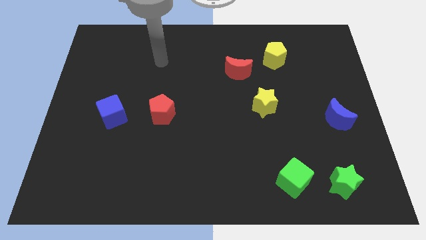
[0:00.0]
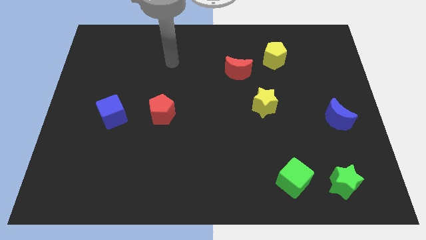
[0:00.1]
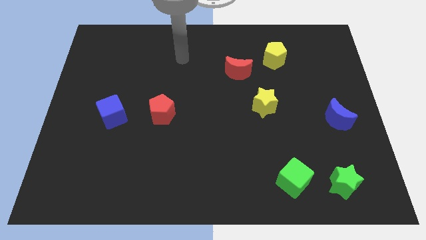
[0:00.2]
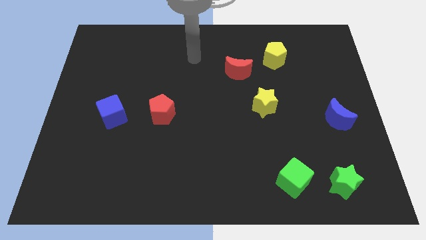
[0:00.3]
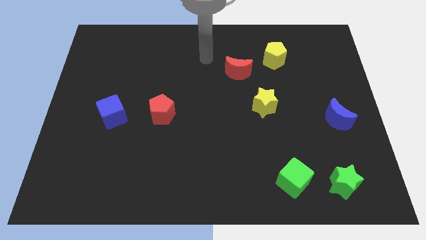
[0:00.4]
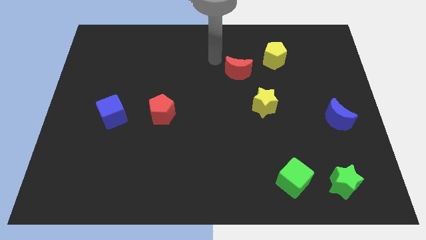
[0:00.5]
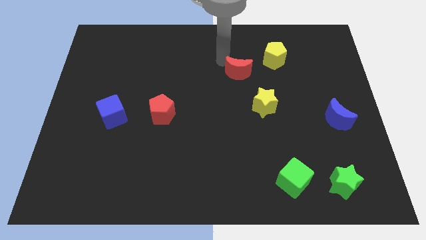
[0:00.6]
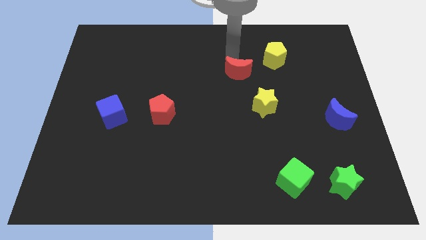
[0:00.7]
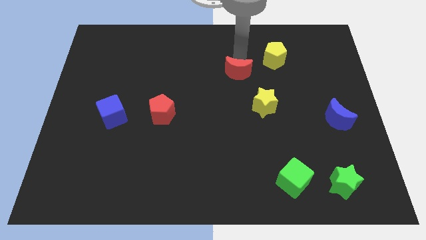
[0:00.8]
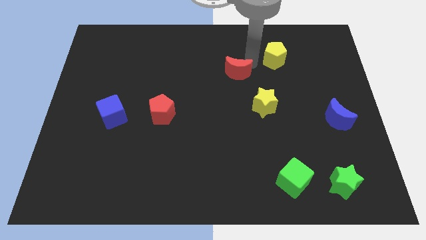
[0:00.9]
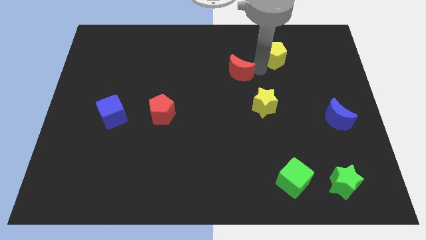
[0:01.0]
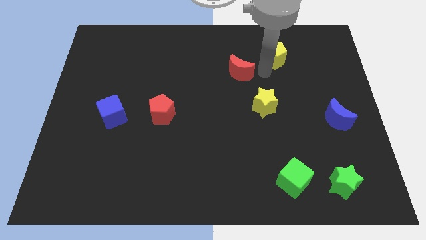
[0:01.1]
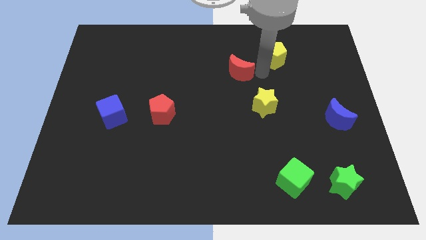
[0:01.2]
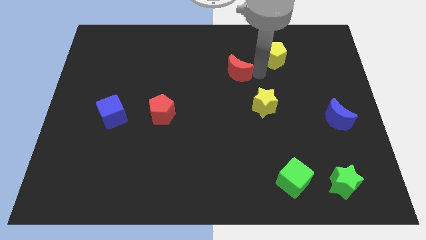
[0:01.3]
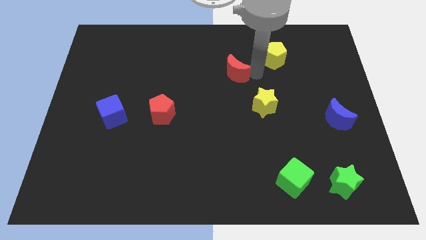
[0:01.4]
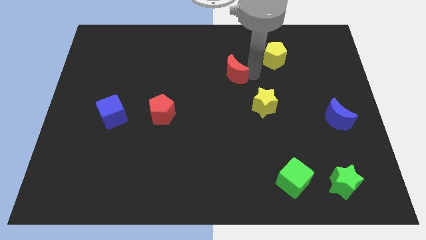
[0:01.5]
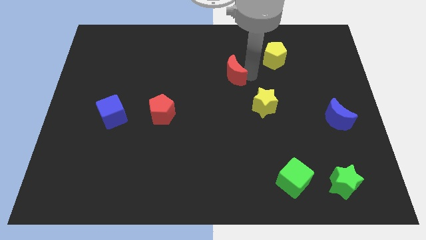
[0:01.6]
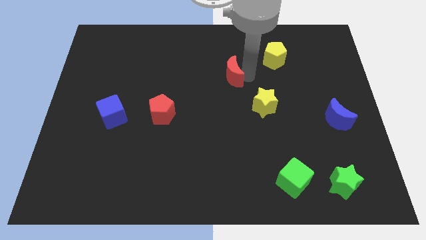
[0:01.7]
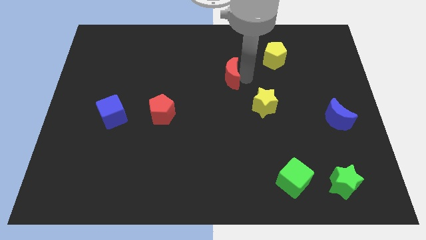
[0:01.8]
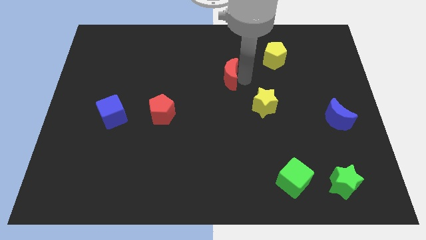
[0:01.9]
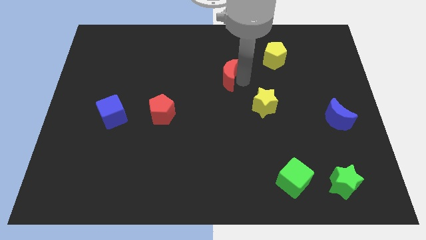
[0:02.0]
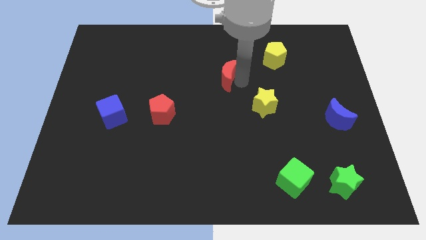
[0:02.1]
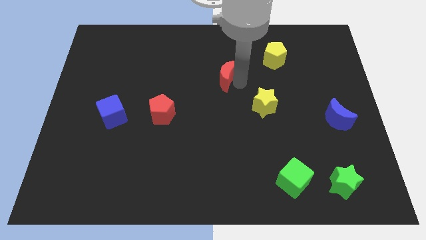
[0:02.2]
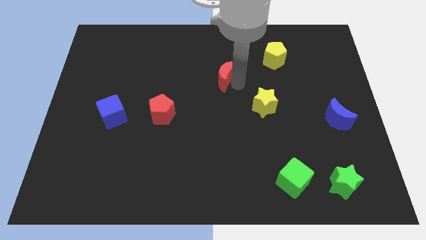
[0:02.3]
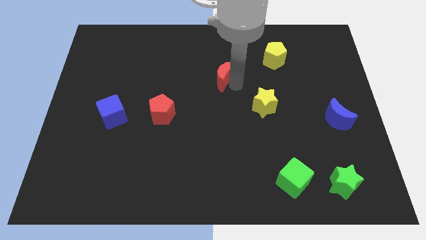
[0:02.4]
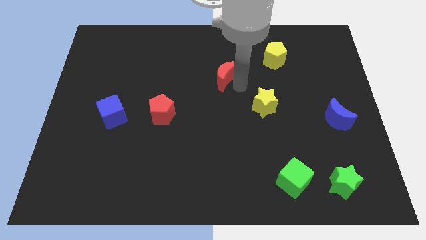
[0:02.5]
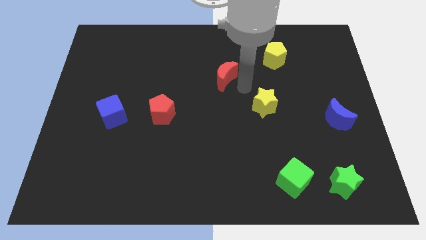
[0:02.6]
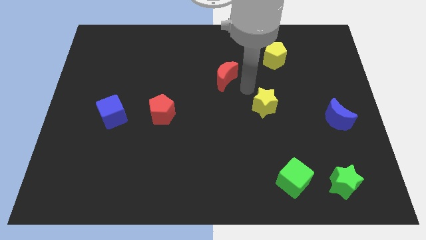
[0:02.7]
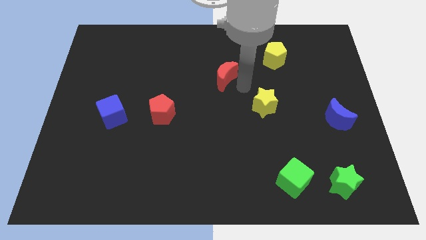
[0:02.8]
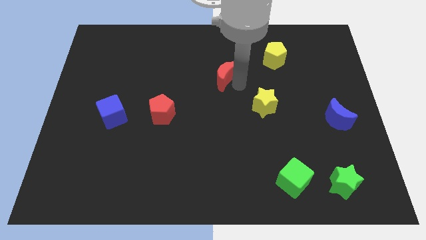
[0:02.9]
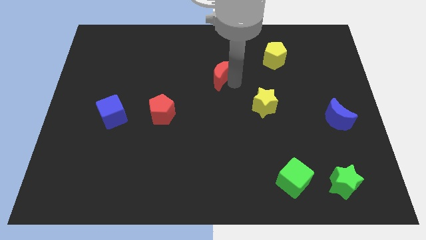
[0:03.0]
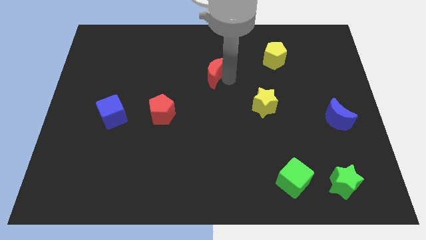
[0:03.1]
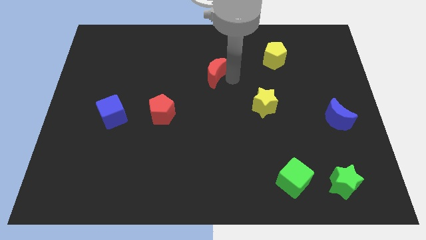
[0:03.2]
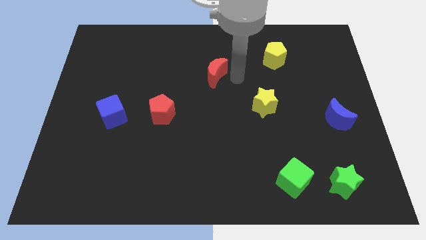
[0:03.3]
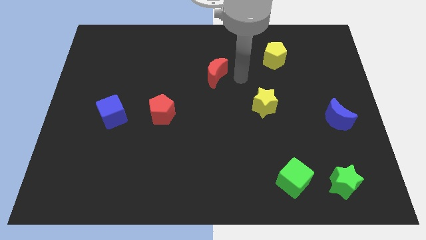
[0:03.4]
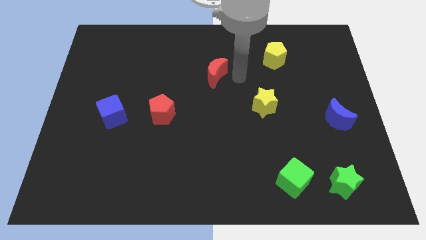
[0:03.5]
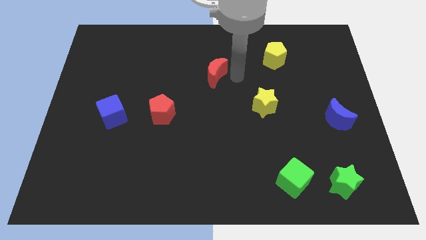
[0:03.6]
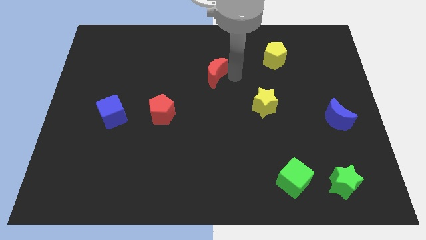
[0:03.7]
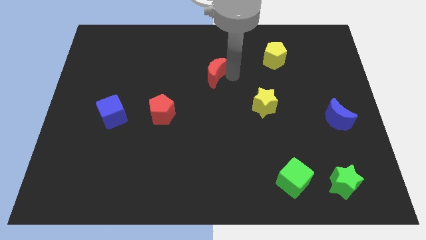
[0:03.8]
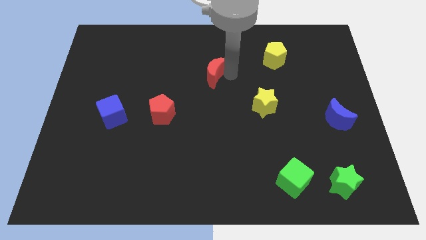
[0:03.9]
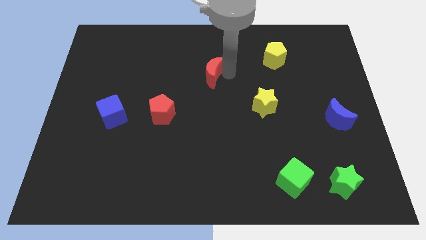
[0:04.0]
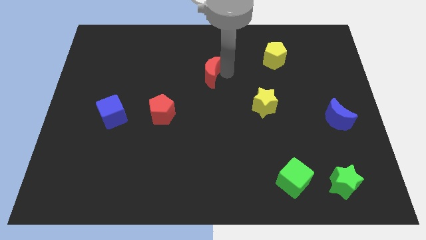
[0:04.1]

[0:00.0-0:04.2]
slightly move the red moon left

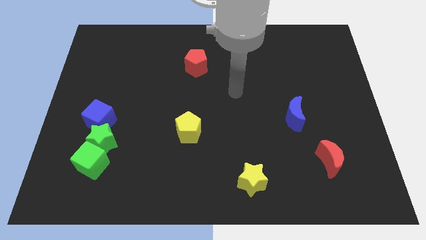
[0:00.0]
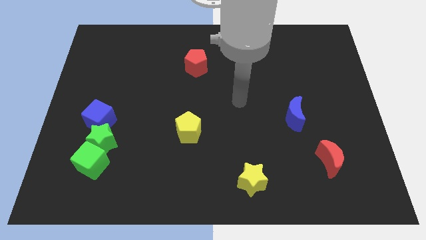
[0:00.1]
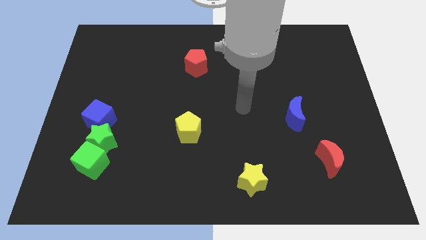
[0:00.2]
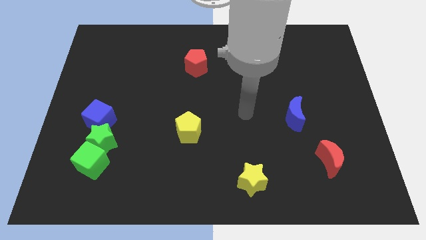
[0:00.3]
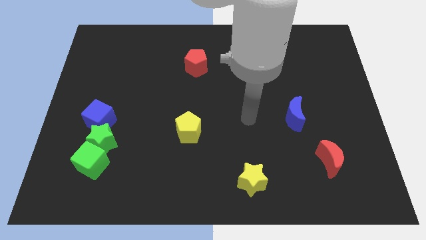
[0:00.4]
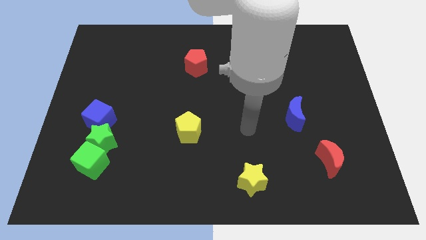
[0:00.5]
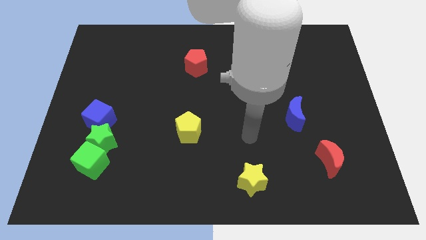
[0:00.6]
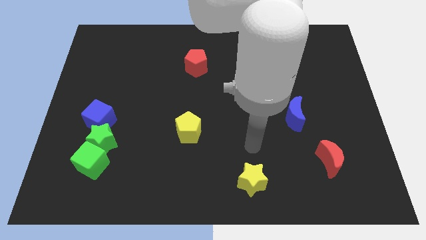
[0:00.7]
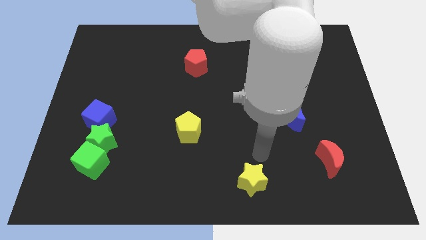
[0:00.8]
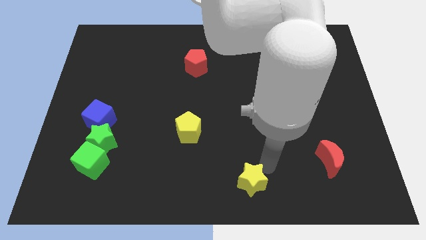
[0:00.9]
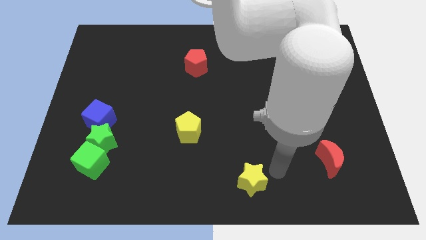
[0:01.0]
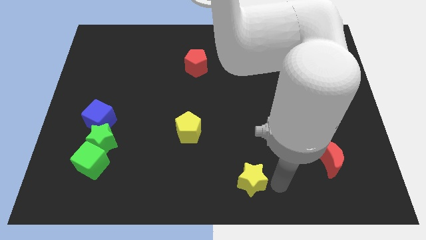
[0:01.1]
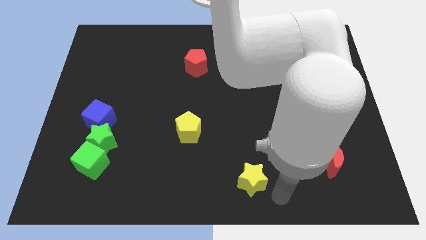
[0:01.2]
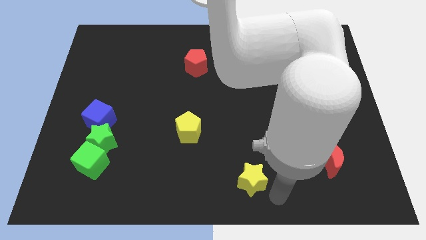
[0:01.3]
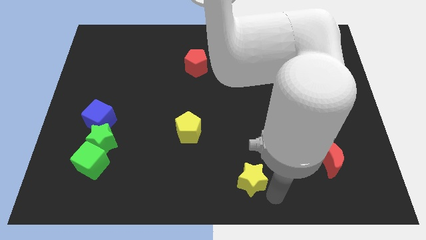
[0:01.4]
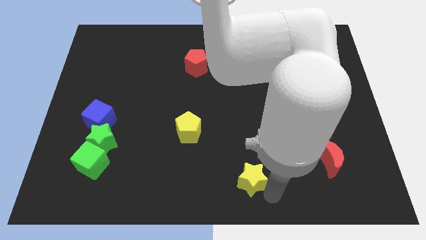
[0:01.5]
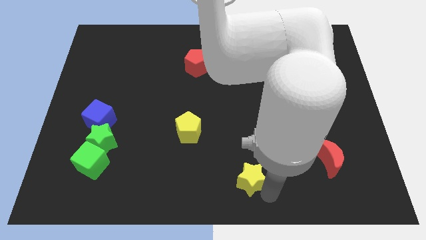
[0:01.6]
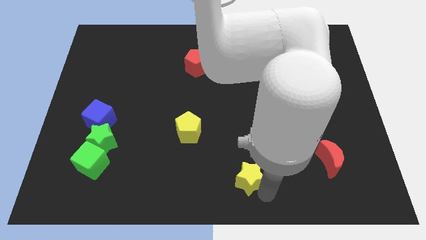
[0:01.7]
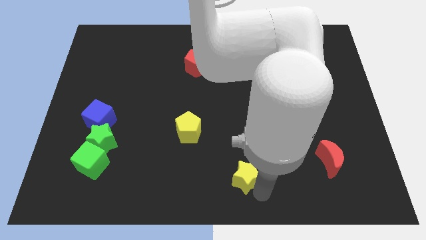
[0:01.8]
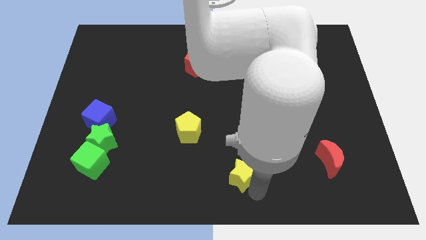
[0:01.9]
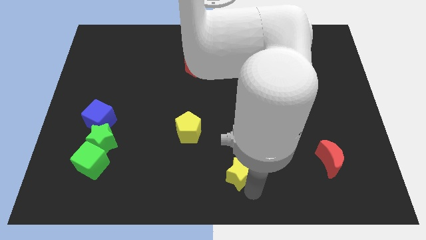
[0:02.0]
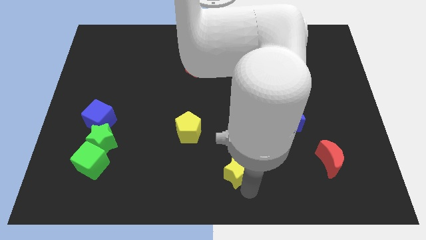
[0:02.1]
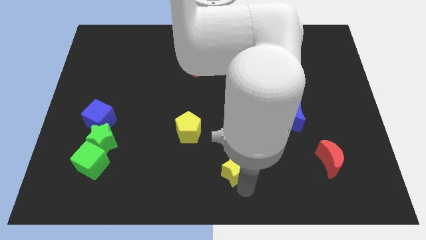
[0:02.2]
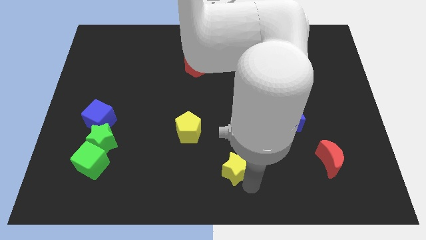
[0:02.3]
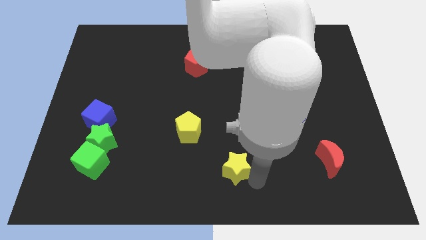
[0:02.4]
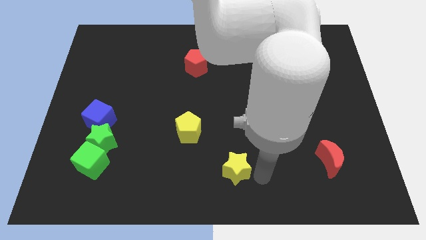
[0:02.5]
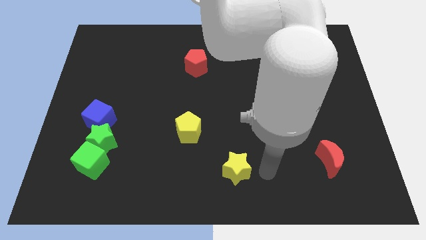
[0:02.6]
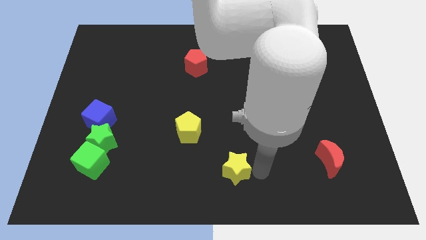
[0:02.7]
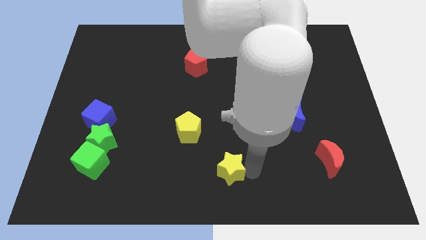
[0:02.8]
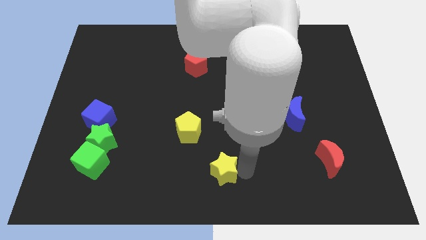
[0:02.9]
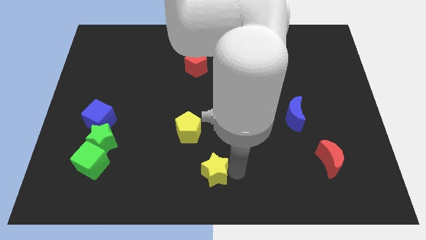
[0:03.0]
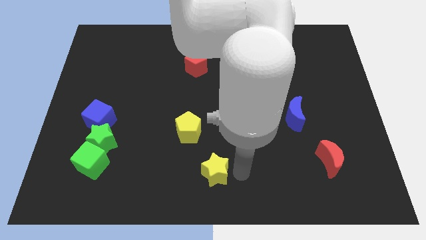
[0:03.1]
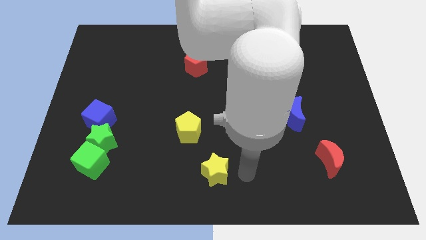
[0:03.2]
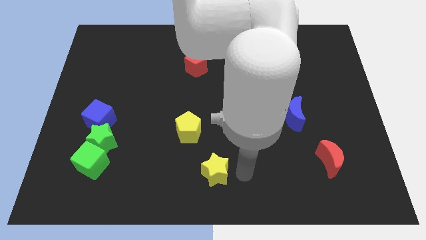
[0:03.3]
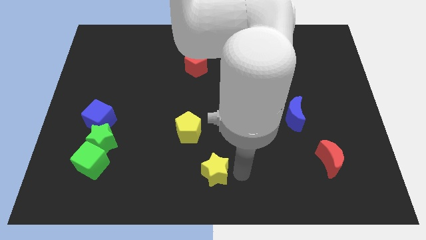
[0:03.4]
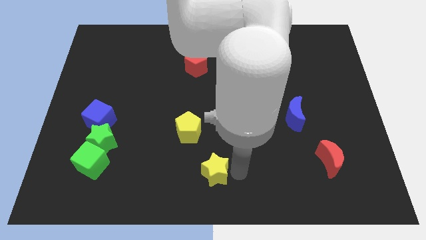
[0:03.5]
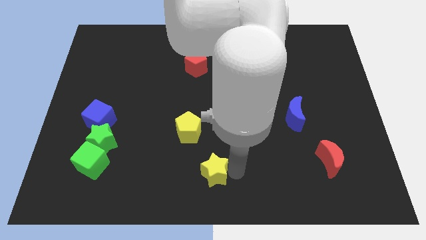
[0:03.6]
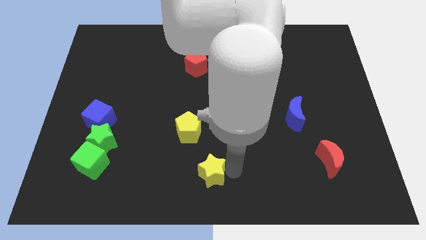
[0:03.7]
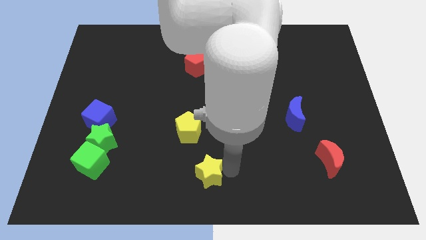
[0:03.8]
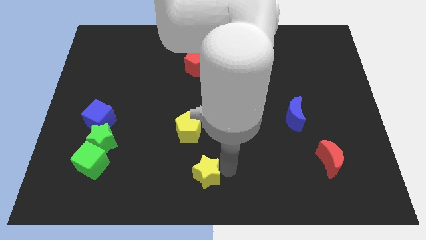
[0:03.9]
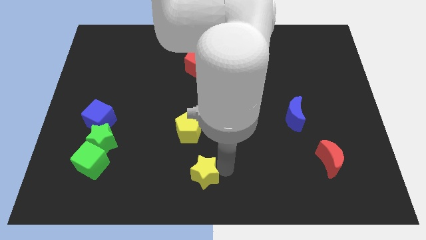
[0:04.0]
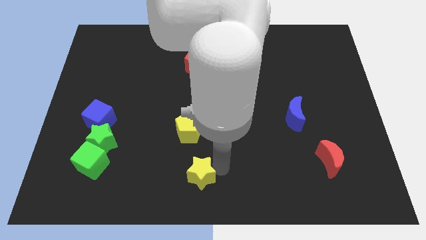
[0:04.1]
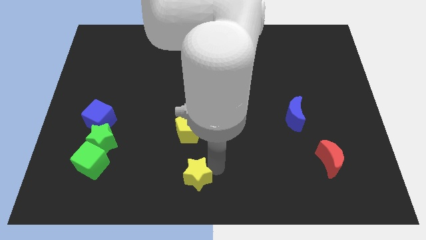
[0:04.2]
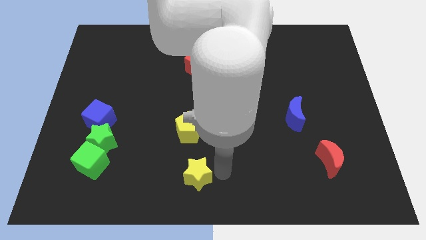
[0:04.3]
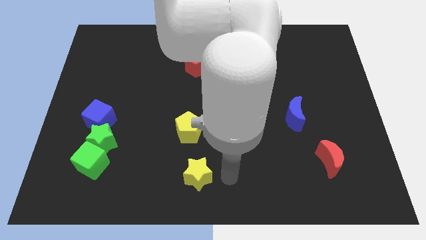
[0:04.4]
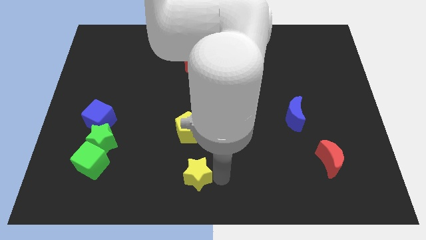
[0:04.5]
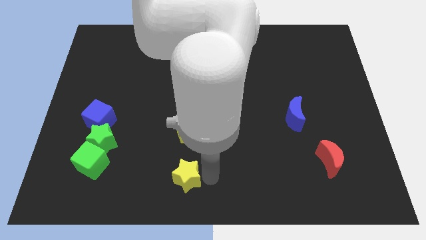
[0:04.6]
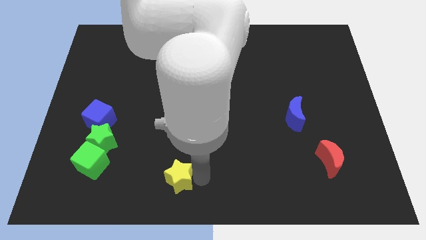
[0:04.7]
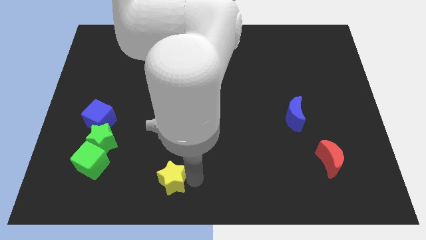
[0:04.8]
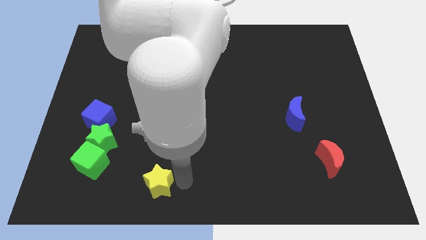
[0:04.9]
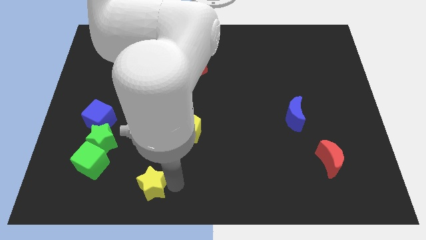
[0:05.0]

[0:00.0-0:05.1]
push the yellow star left
